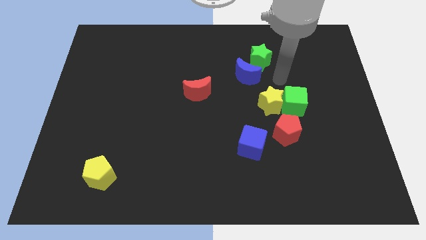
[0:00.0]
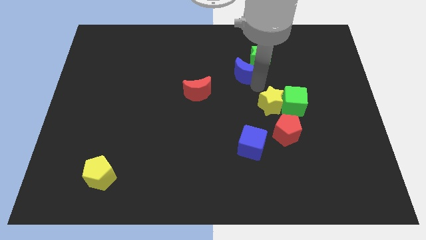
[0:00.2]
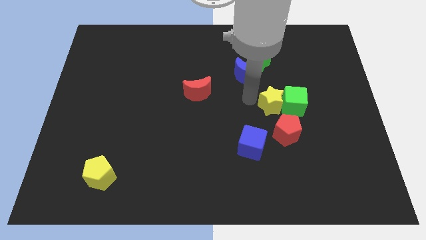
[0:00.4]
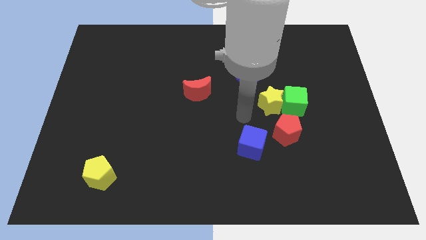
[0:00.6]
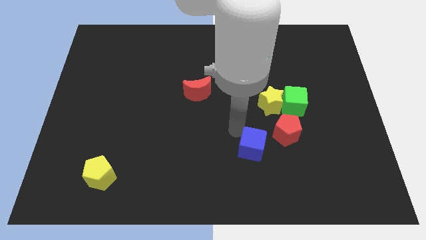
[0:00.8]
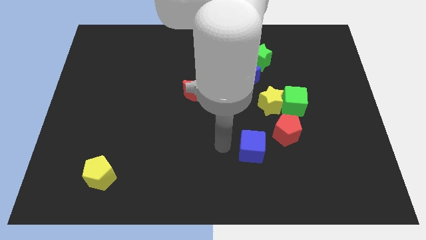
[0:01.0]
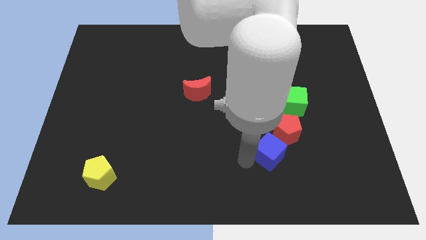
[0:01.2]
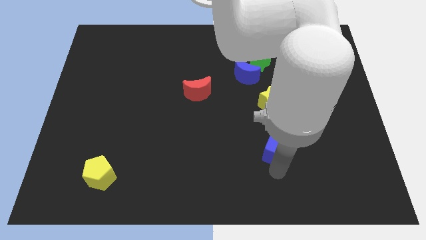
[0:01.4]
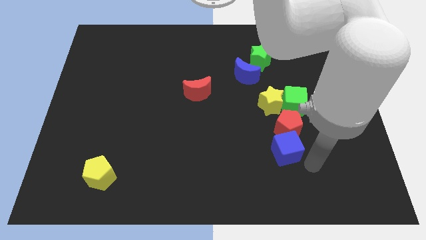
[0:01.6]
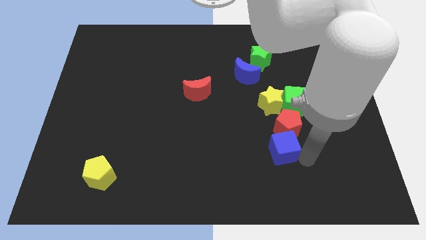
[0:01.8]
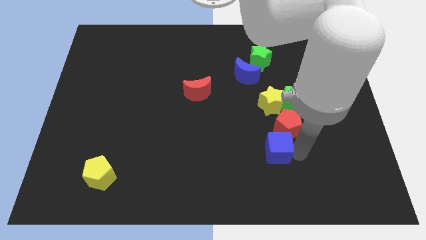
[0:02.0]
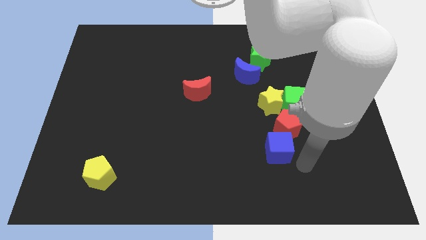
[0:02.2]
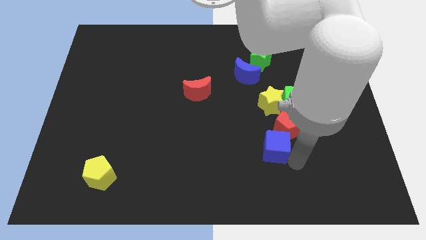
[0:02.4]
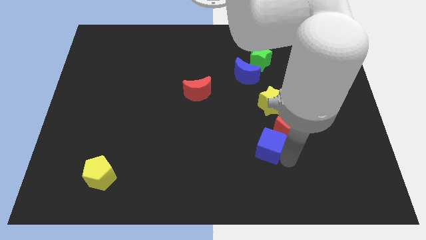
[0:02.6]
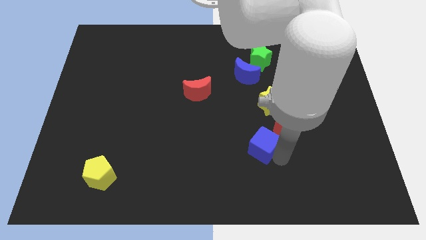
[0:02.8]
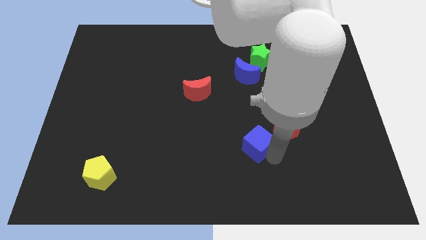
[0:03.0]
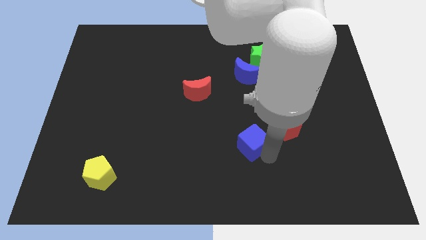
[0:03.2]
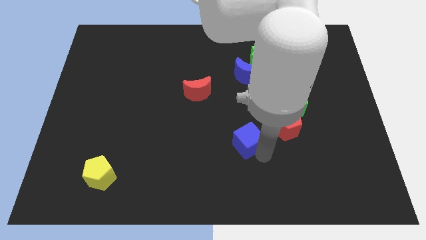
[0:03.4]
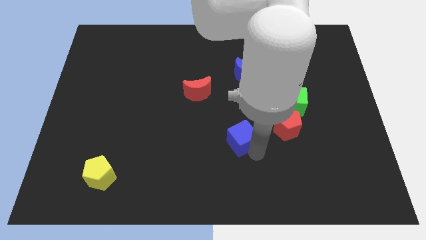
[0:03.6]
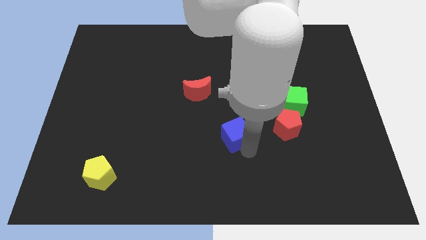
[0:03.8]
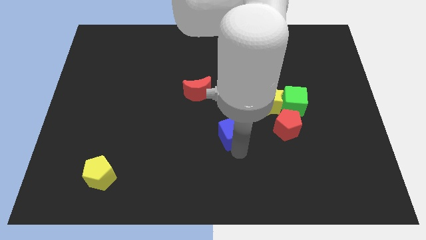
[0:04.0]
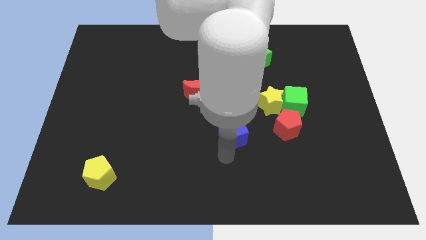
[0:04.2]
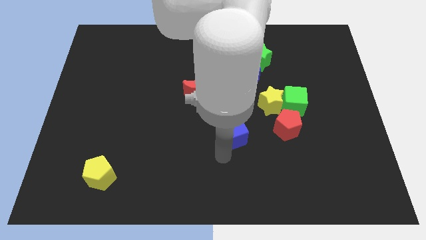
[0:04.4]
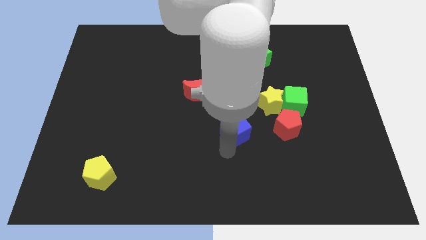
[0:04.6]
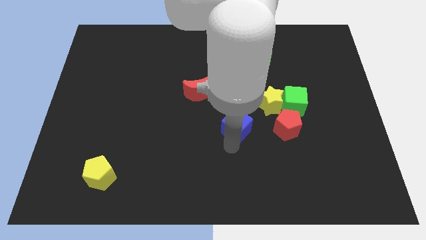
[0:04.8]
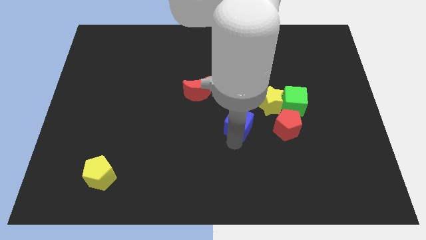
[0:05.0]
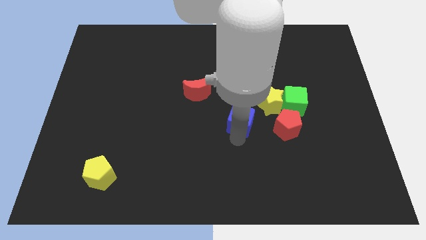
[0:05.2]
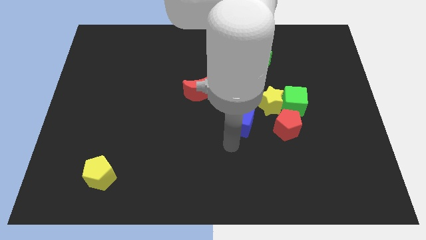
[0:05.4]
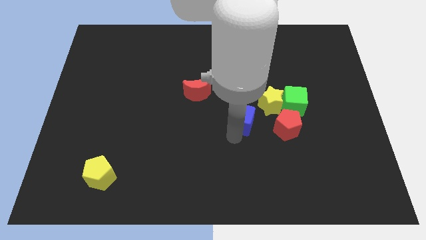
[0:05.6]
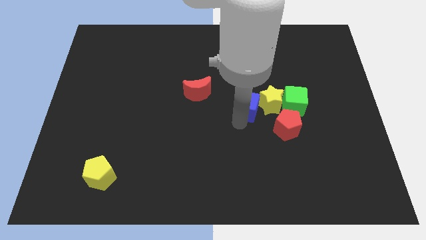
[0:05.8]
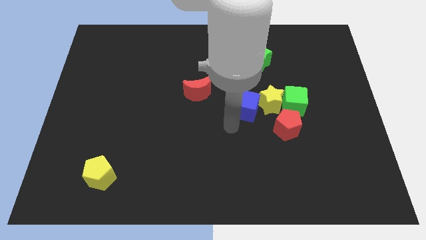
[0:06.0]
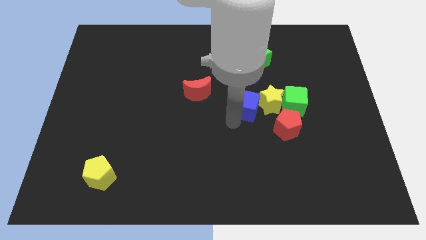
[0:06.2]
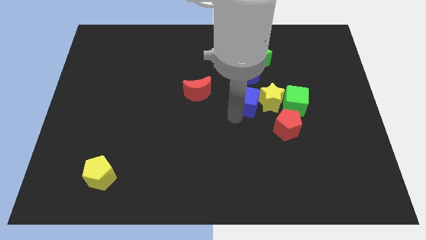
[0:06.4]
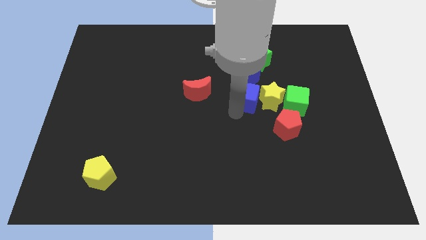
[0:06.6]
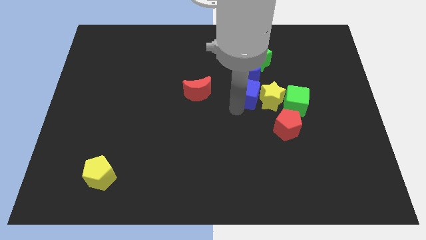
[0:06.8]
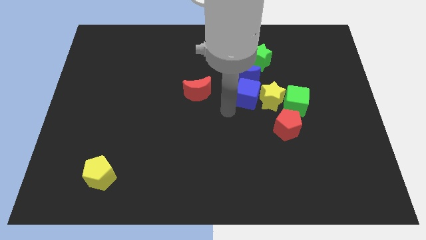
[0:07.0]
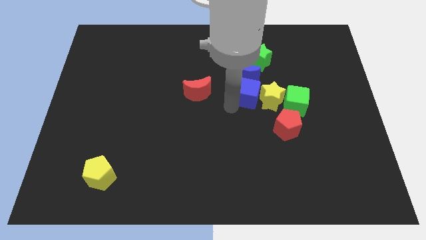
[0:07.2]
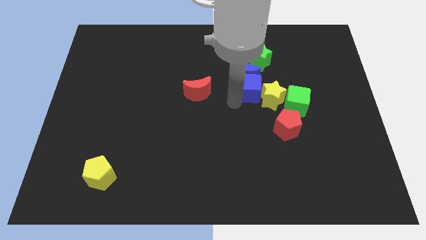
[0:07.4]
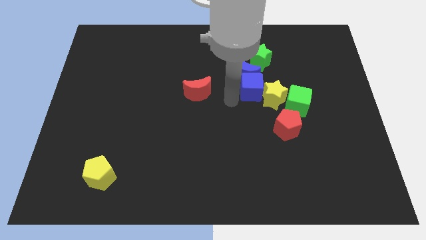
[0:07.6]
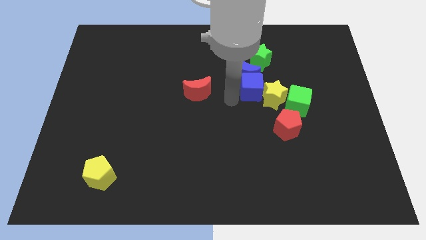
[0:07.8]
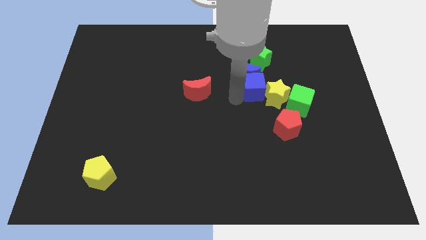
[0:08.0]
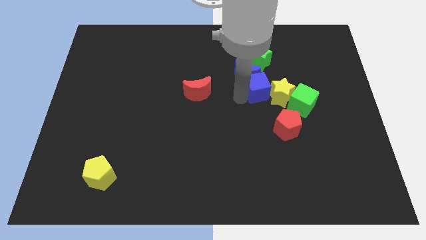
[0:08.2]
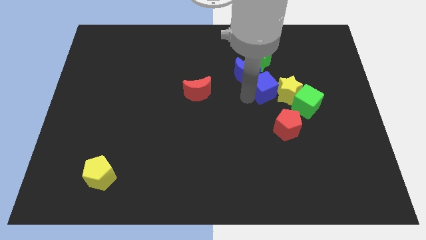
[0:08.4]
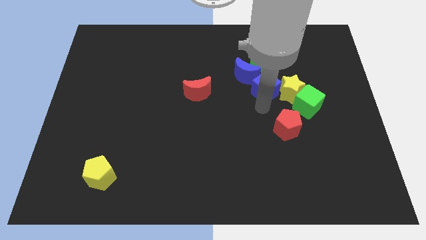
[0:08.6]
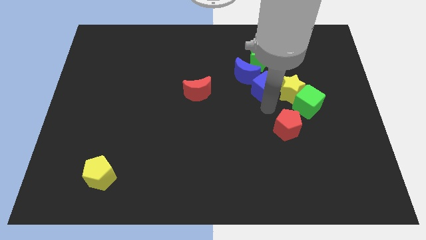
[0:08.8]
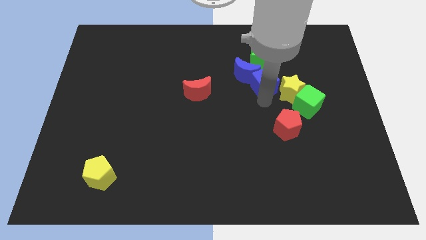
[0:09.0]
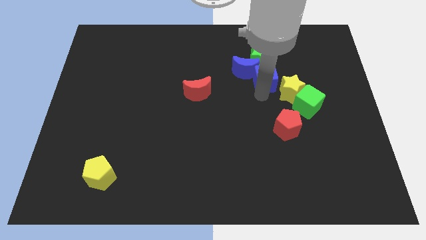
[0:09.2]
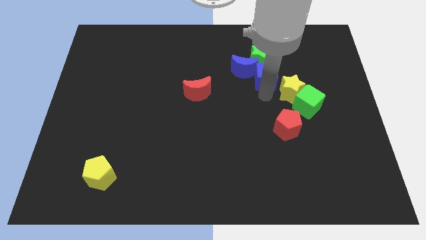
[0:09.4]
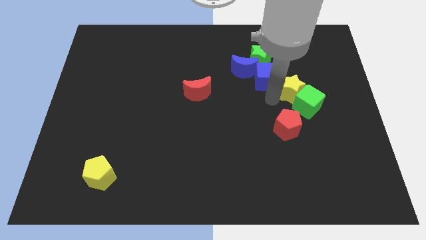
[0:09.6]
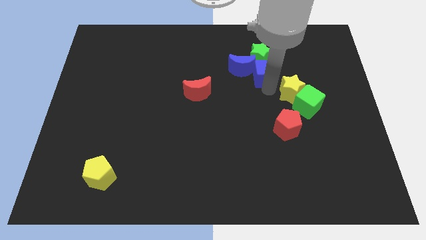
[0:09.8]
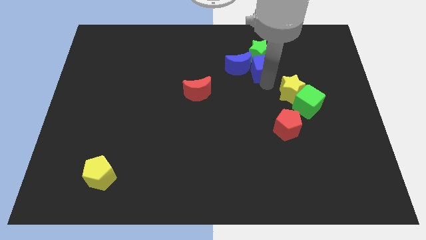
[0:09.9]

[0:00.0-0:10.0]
push the blue cube next to the green star

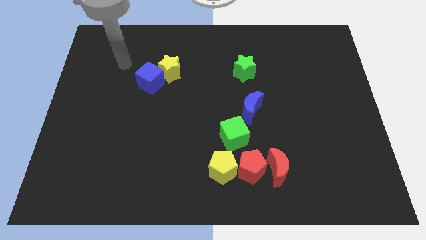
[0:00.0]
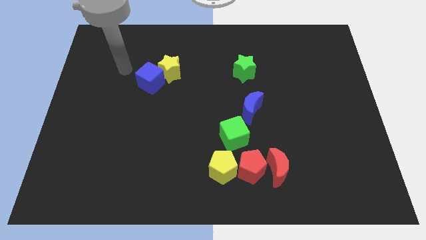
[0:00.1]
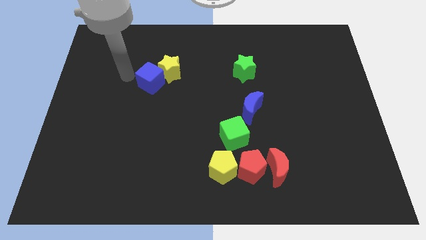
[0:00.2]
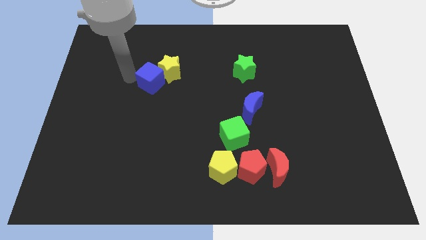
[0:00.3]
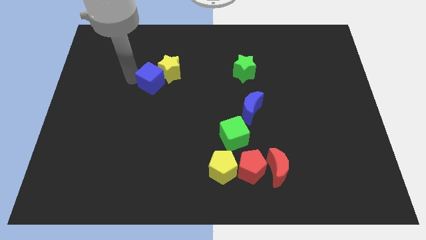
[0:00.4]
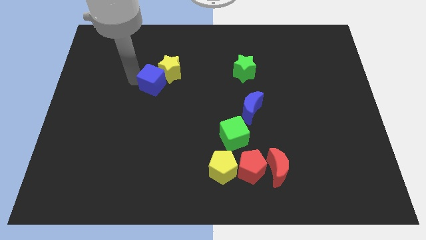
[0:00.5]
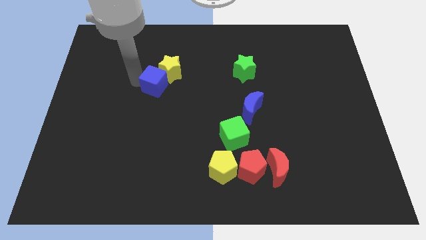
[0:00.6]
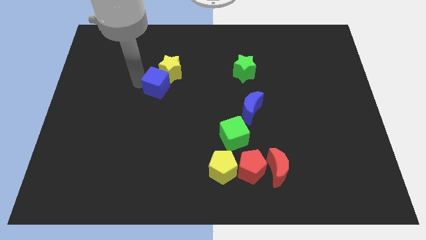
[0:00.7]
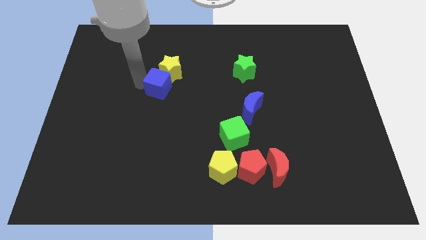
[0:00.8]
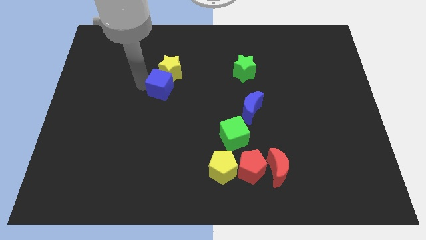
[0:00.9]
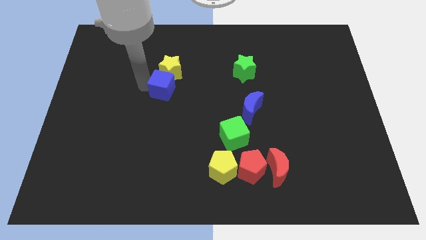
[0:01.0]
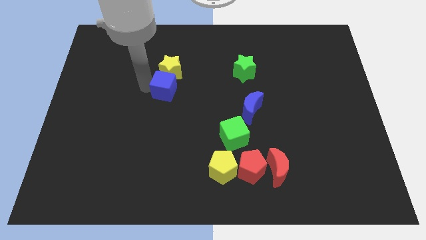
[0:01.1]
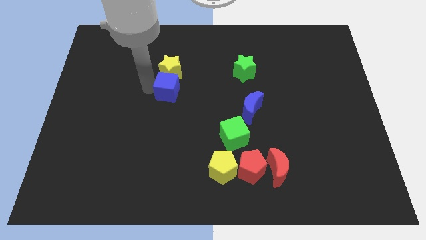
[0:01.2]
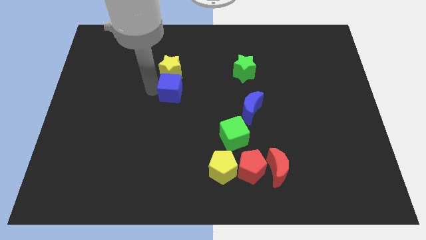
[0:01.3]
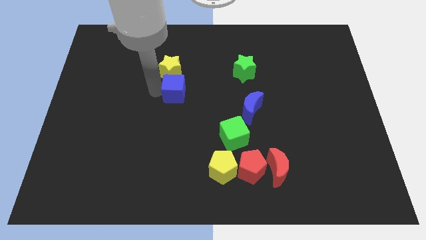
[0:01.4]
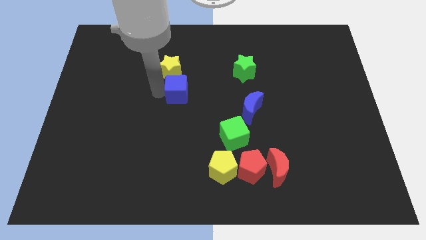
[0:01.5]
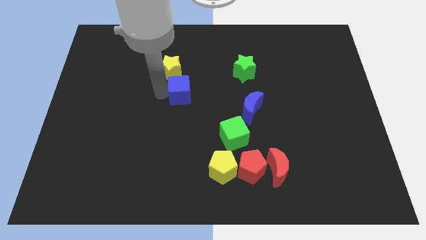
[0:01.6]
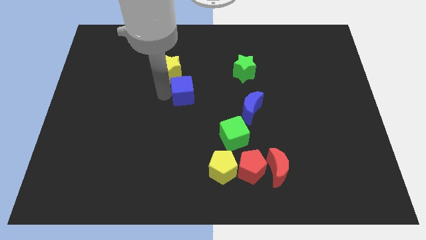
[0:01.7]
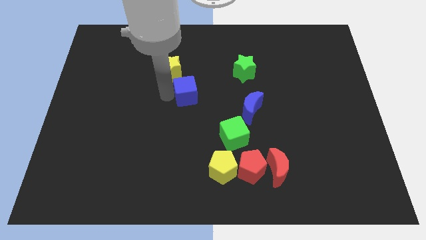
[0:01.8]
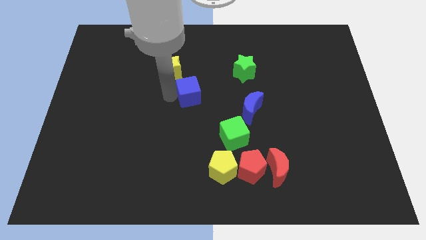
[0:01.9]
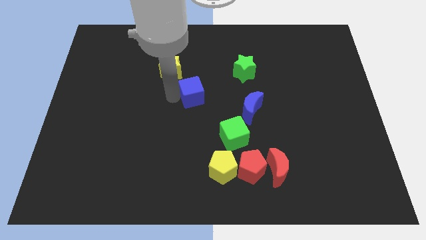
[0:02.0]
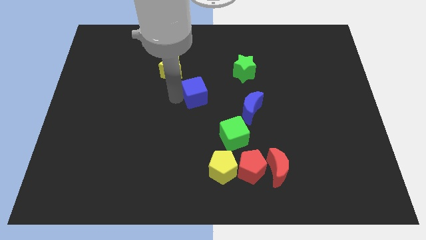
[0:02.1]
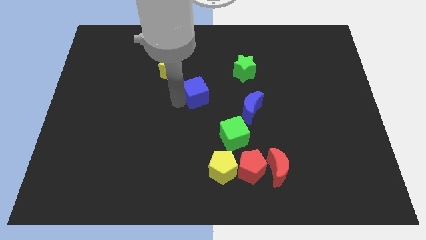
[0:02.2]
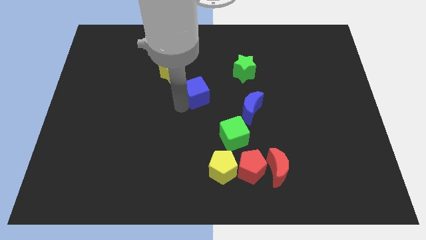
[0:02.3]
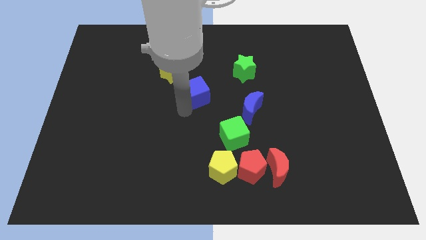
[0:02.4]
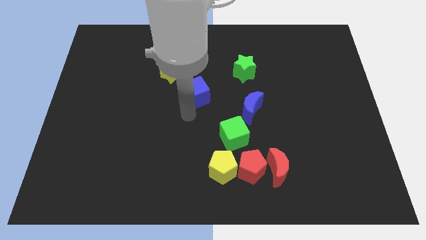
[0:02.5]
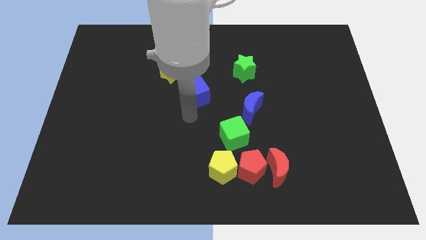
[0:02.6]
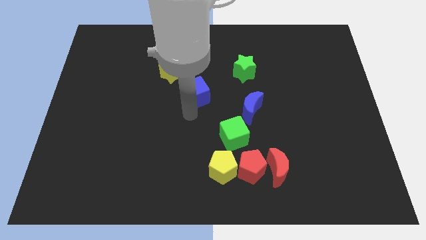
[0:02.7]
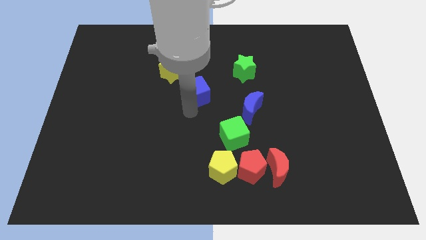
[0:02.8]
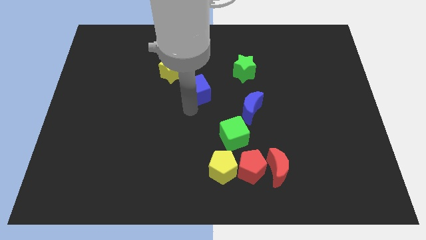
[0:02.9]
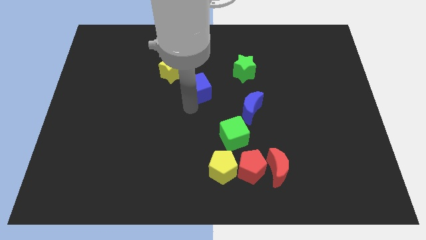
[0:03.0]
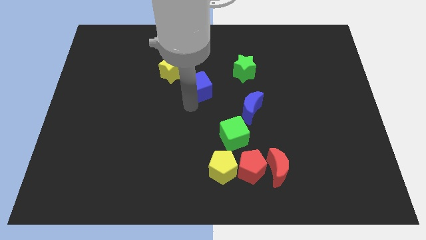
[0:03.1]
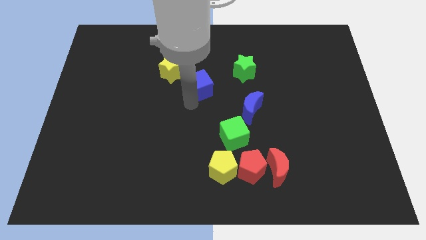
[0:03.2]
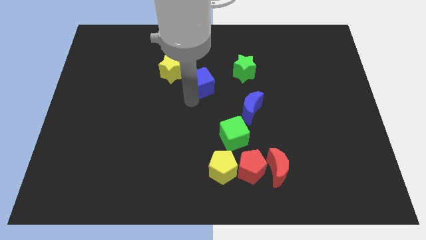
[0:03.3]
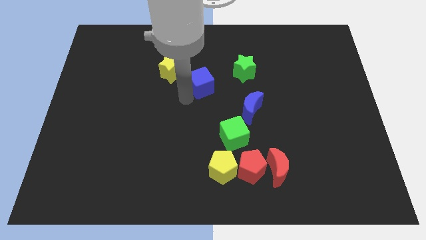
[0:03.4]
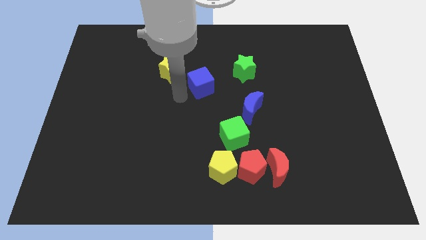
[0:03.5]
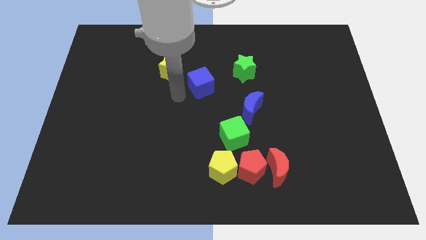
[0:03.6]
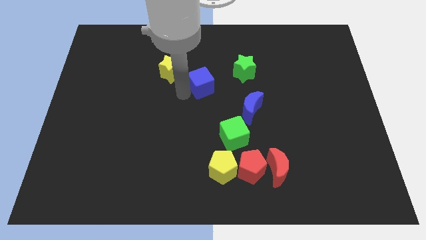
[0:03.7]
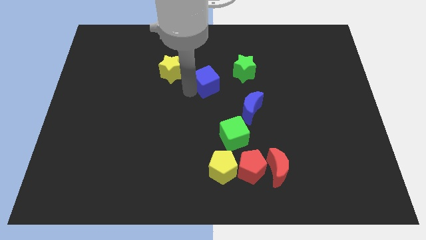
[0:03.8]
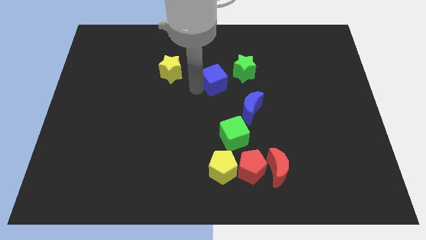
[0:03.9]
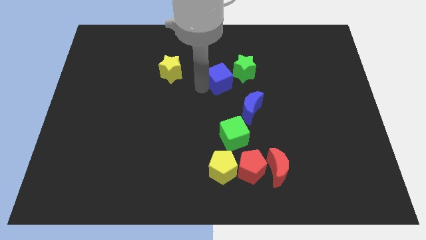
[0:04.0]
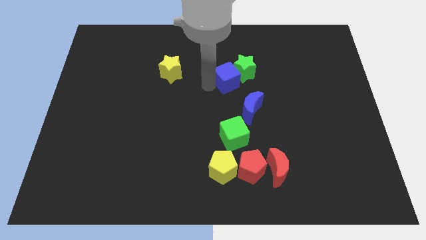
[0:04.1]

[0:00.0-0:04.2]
put the blue cube towards the green star
